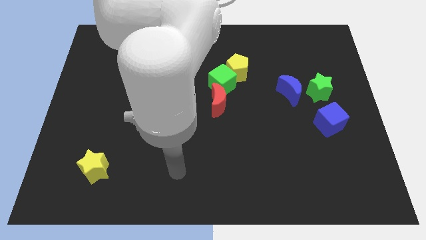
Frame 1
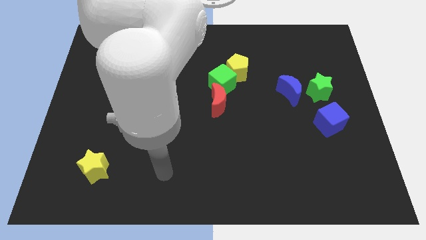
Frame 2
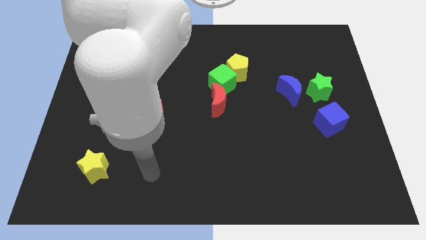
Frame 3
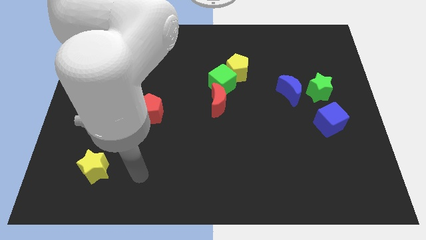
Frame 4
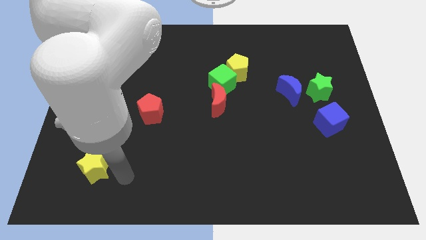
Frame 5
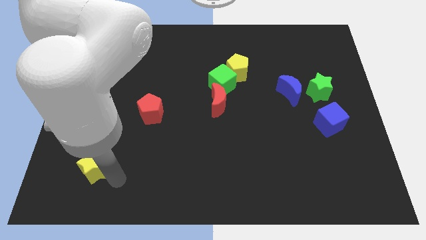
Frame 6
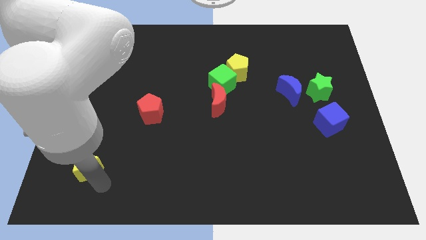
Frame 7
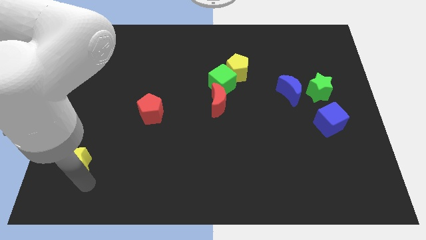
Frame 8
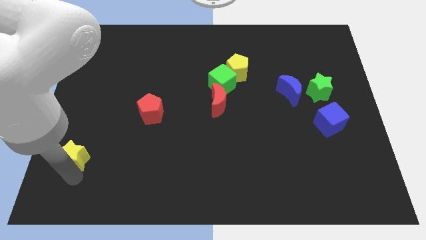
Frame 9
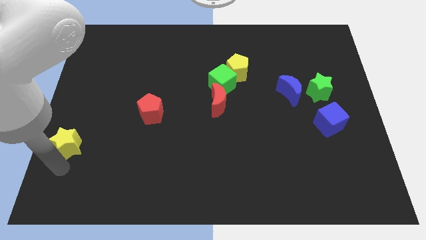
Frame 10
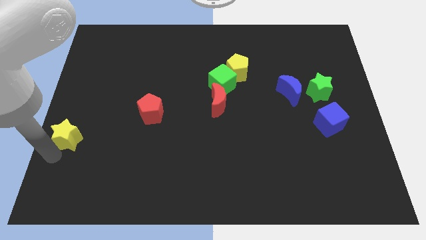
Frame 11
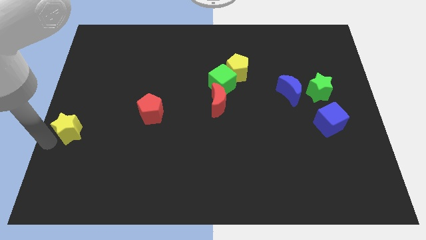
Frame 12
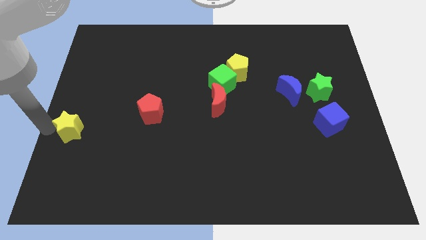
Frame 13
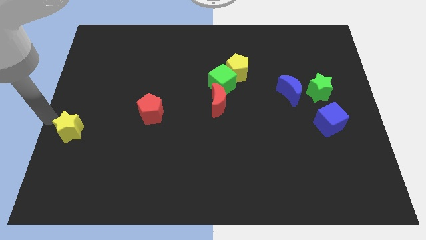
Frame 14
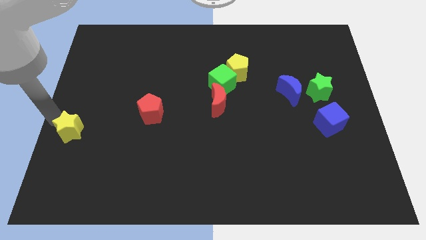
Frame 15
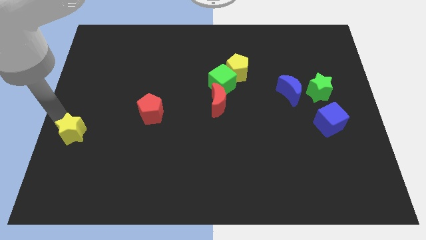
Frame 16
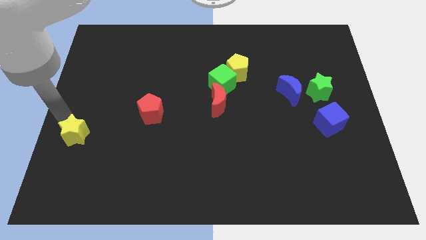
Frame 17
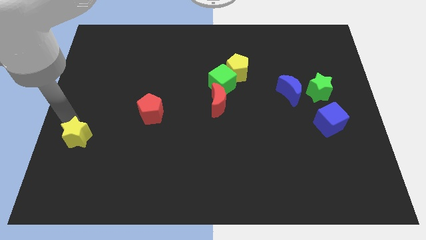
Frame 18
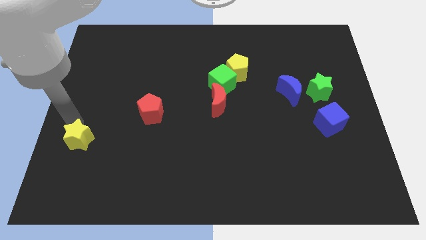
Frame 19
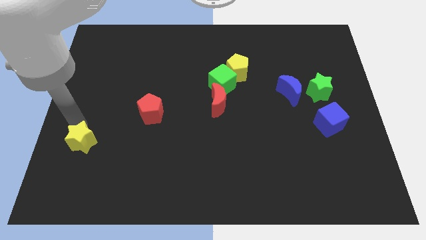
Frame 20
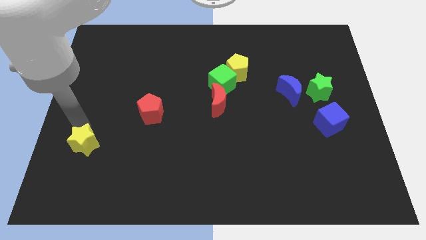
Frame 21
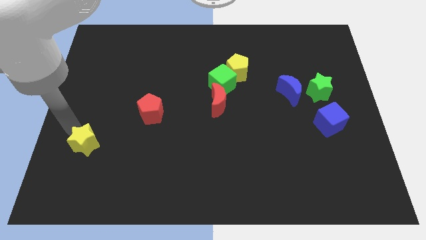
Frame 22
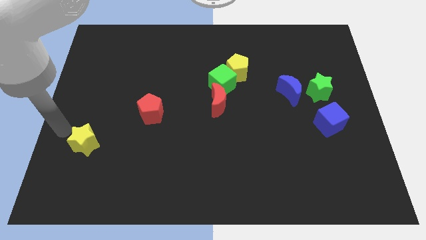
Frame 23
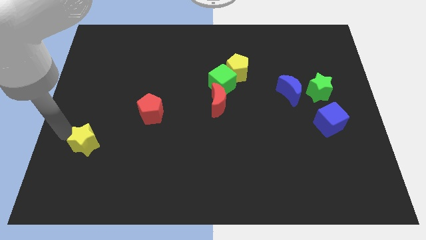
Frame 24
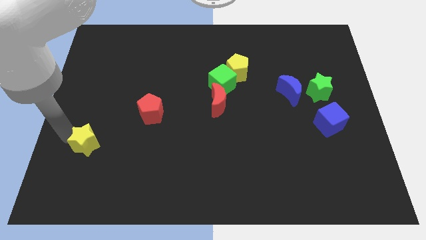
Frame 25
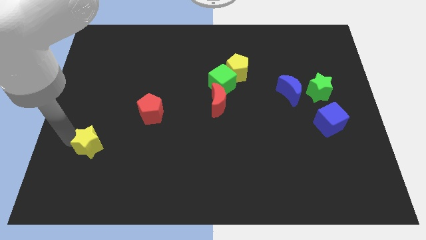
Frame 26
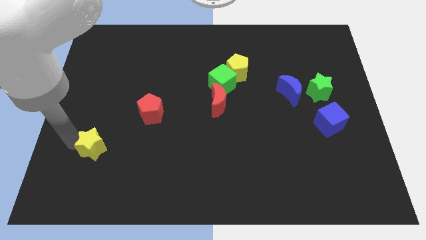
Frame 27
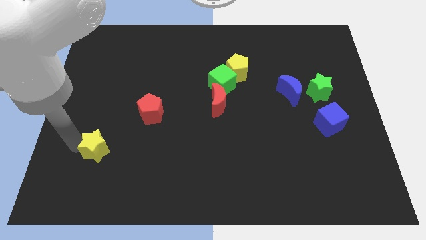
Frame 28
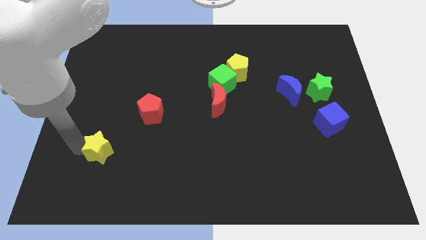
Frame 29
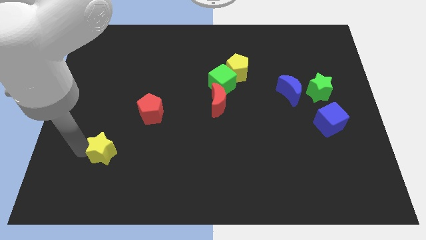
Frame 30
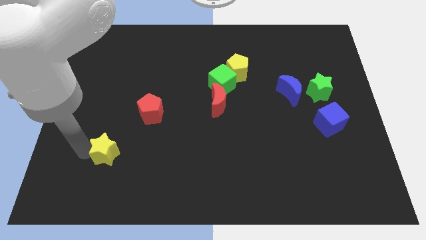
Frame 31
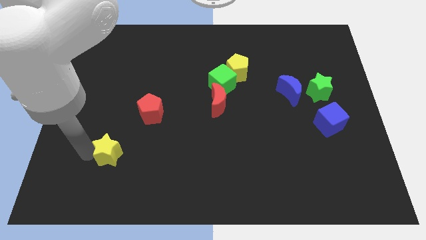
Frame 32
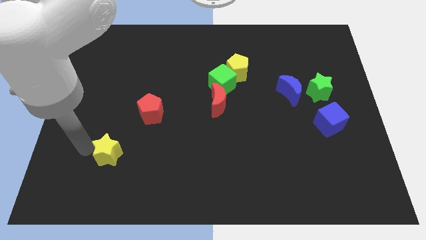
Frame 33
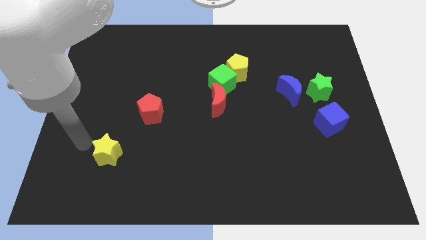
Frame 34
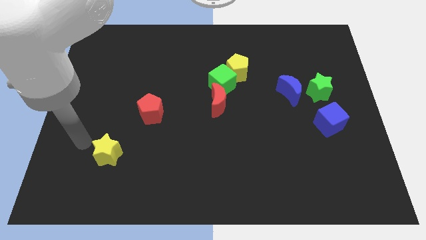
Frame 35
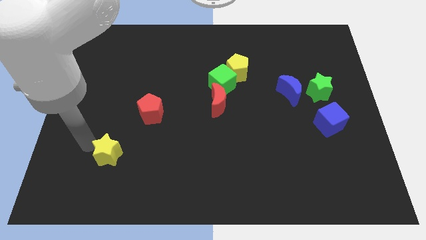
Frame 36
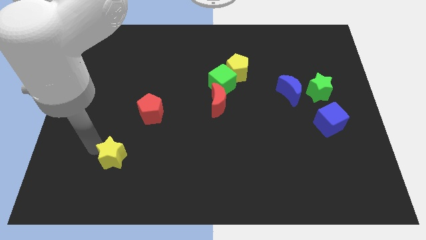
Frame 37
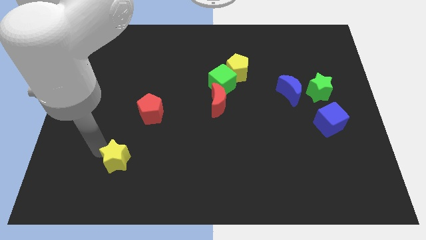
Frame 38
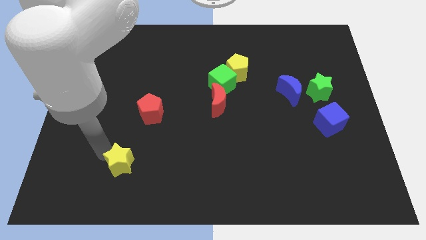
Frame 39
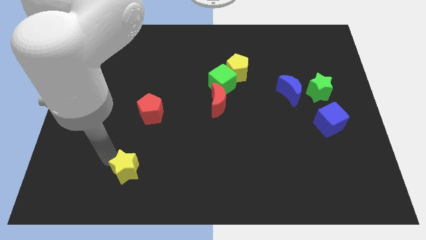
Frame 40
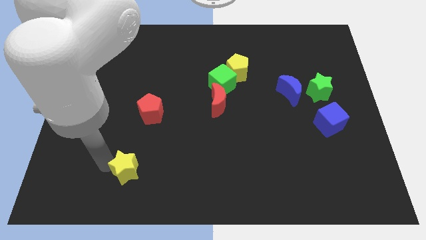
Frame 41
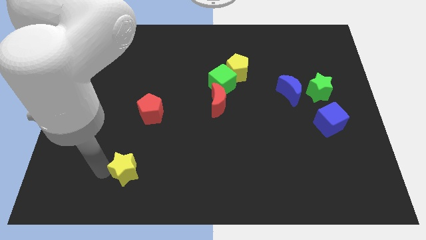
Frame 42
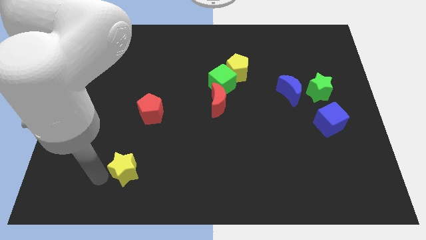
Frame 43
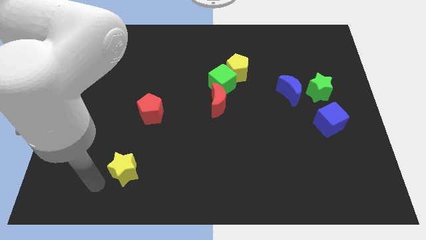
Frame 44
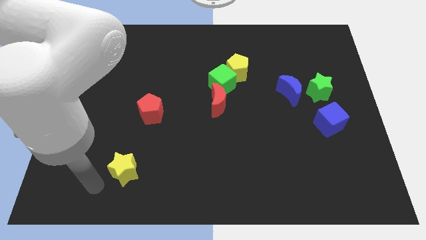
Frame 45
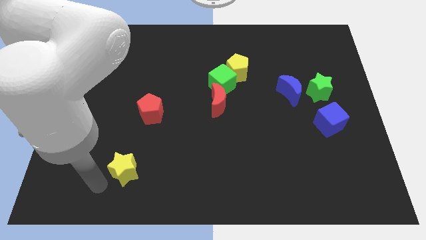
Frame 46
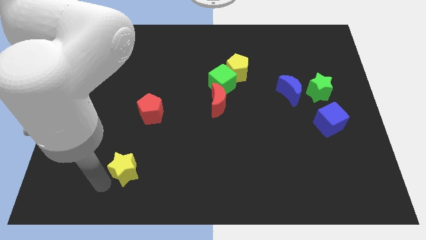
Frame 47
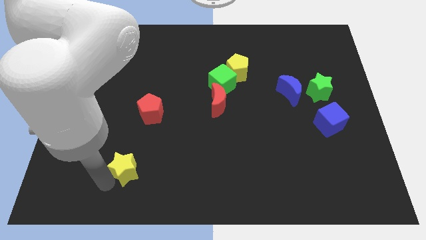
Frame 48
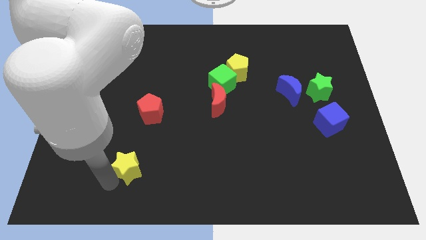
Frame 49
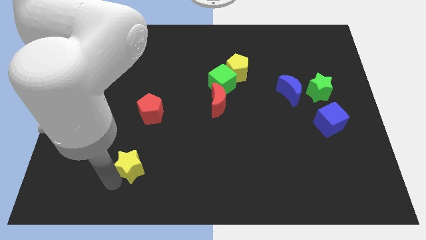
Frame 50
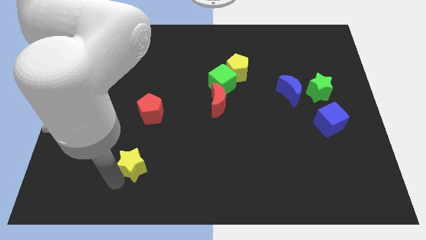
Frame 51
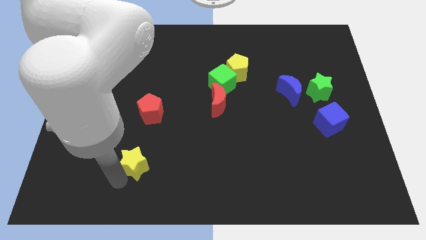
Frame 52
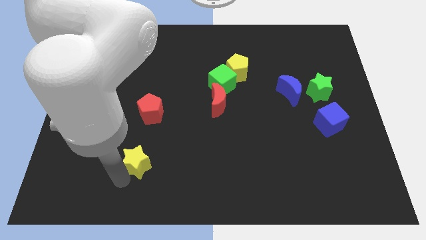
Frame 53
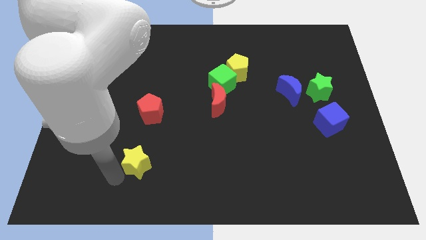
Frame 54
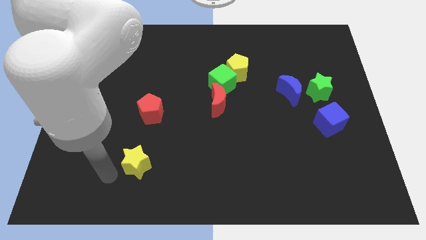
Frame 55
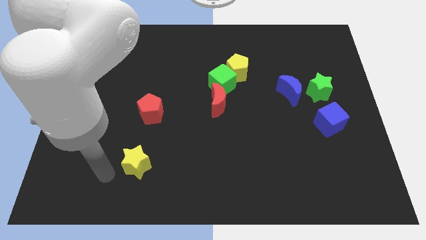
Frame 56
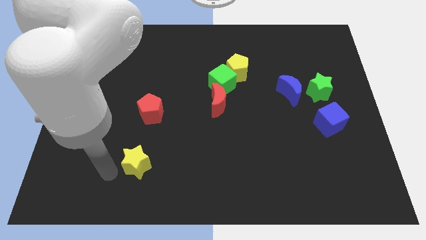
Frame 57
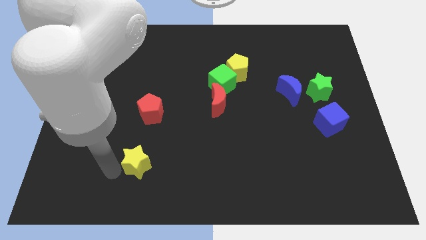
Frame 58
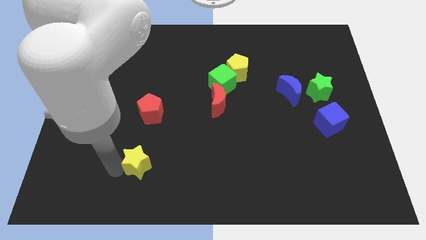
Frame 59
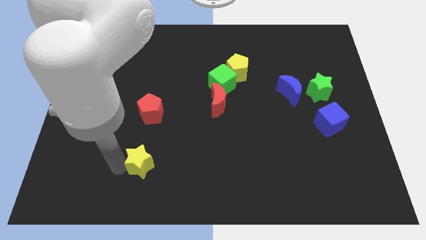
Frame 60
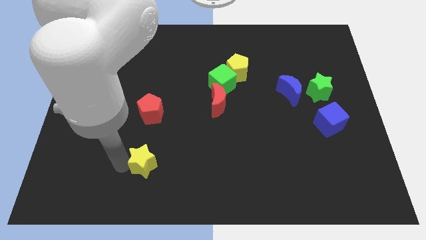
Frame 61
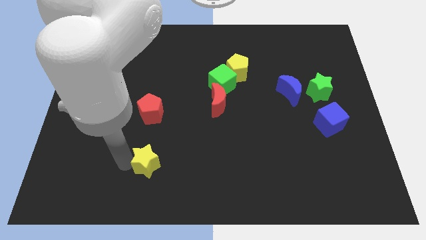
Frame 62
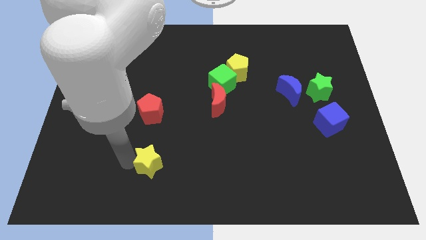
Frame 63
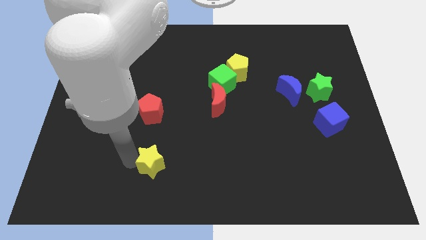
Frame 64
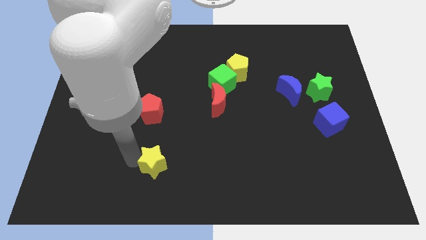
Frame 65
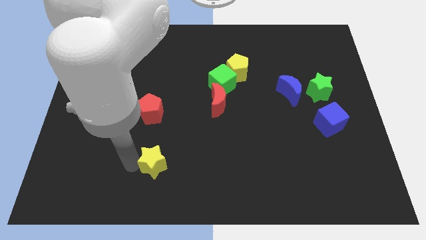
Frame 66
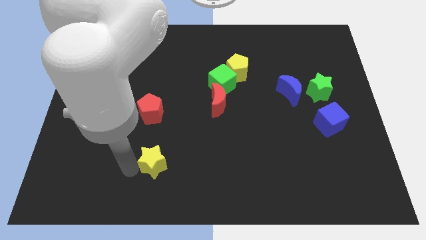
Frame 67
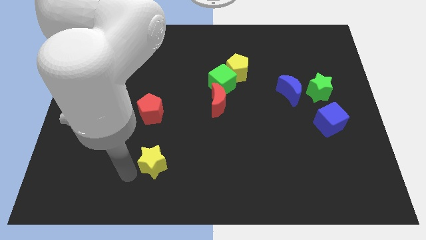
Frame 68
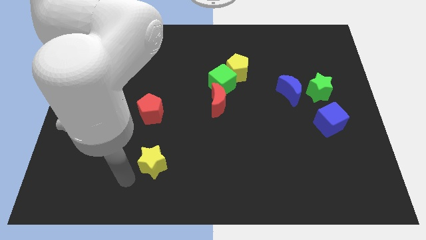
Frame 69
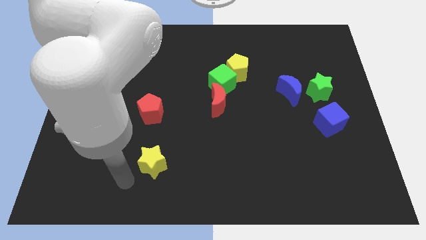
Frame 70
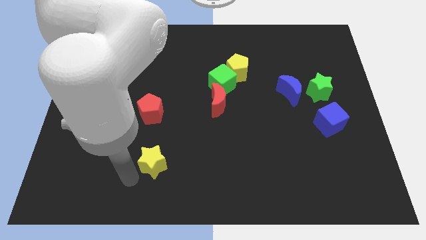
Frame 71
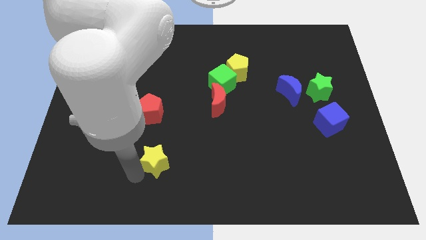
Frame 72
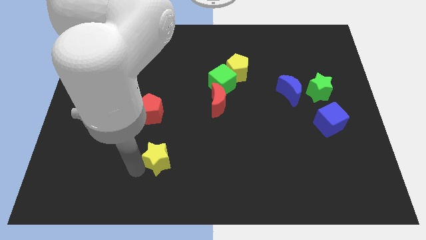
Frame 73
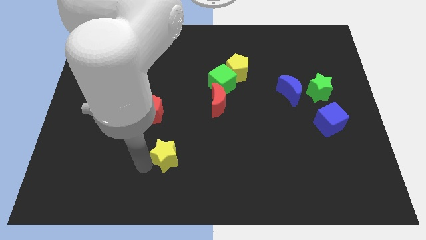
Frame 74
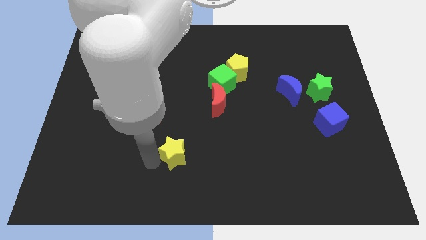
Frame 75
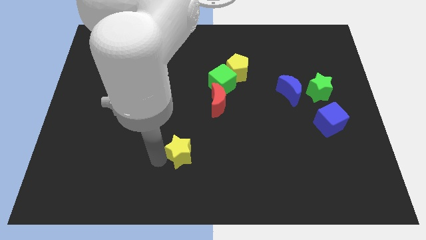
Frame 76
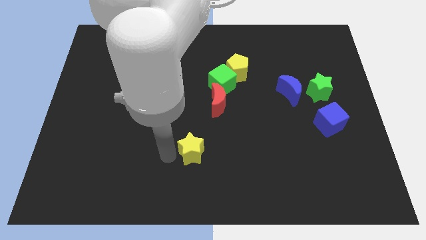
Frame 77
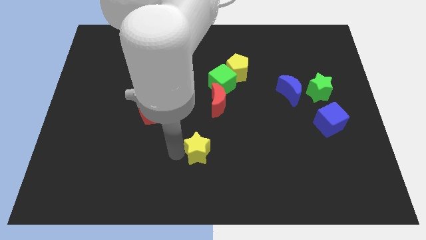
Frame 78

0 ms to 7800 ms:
slide the yellow star to the right

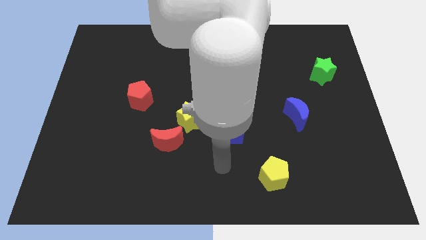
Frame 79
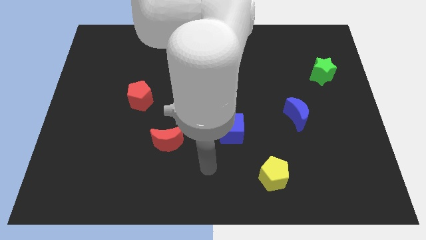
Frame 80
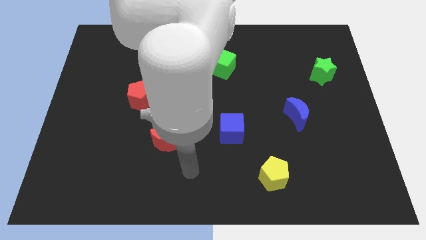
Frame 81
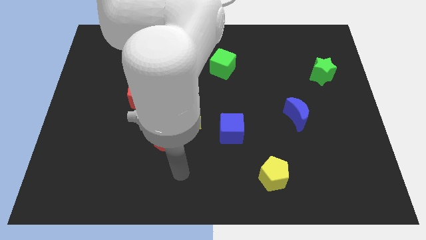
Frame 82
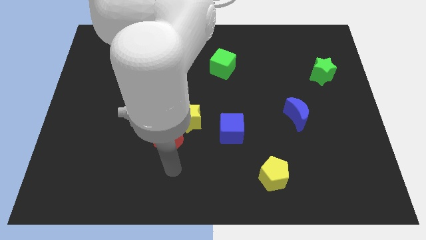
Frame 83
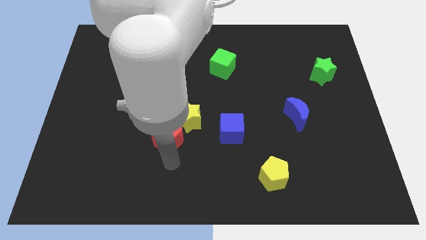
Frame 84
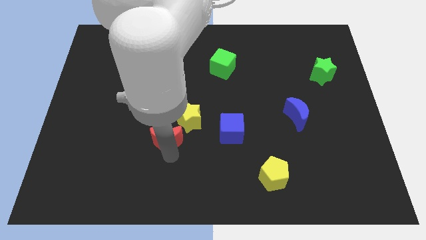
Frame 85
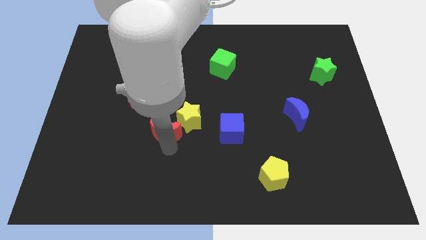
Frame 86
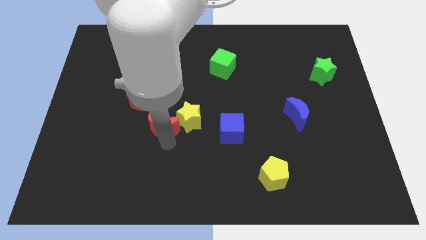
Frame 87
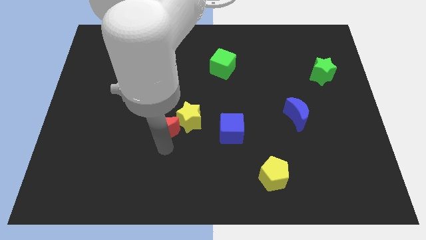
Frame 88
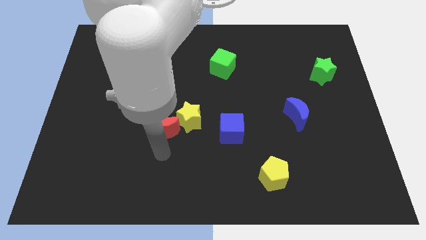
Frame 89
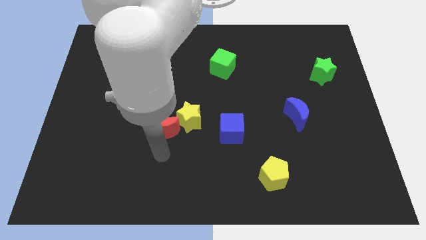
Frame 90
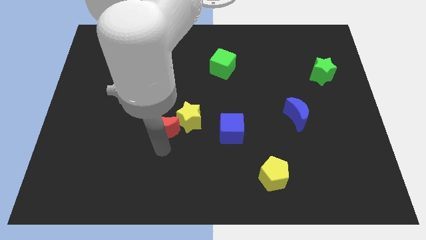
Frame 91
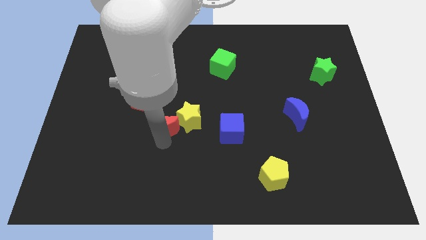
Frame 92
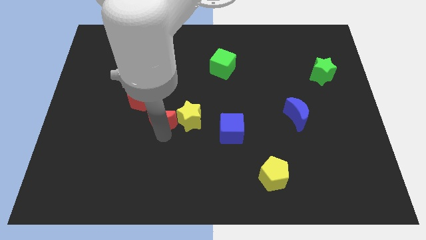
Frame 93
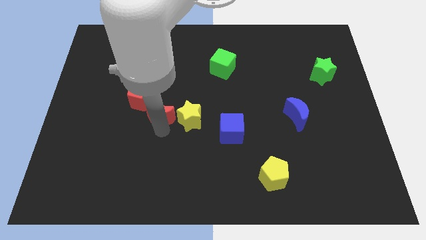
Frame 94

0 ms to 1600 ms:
slide the red moon a little upwards
